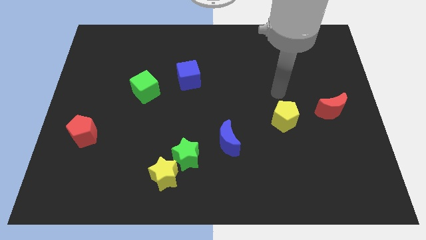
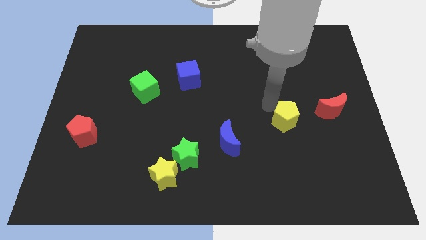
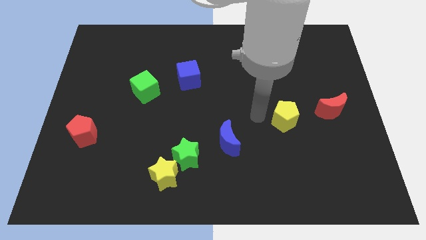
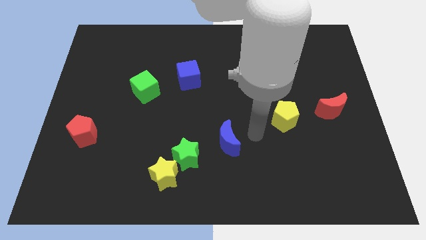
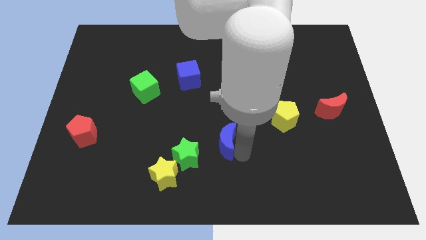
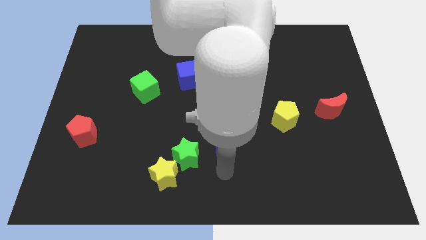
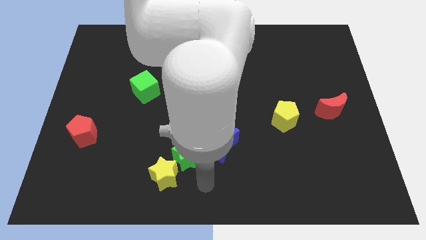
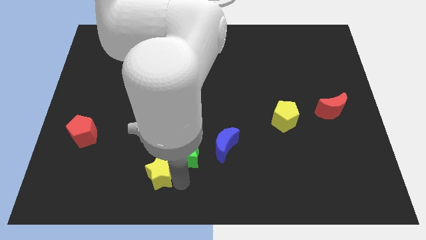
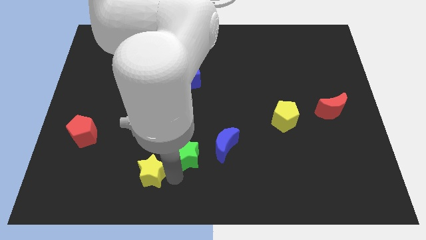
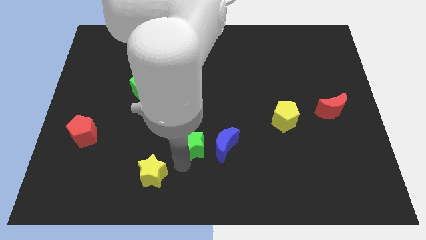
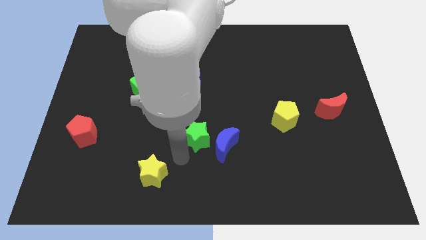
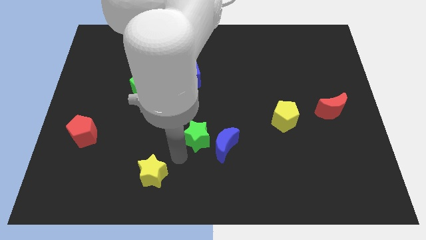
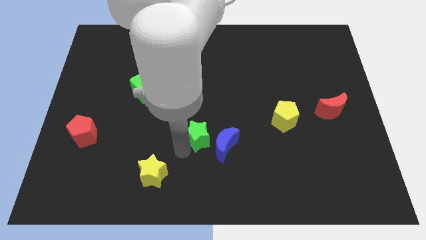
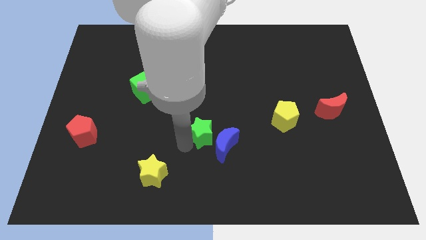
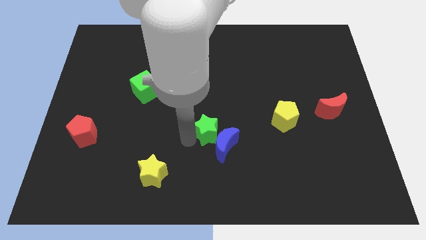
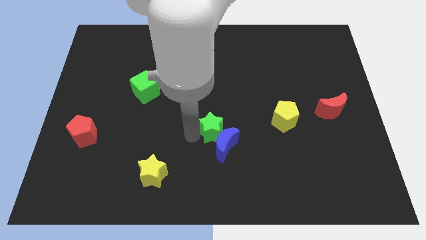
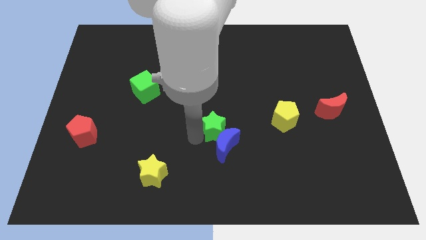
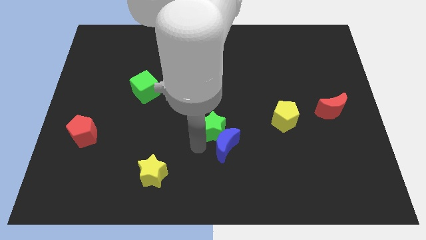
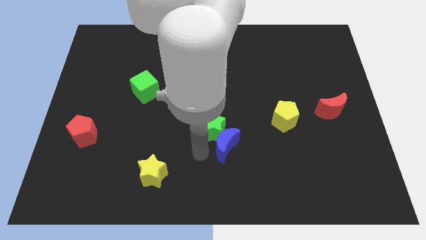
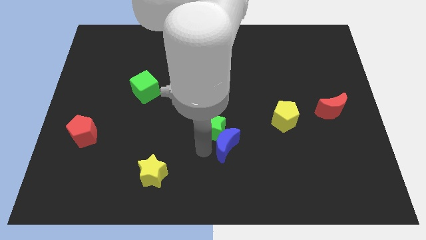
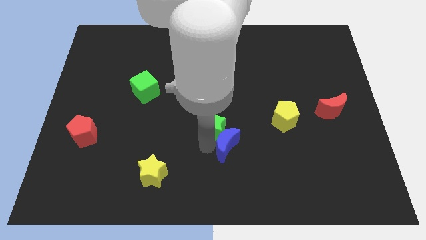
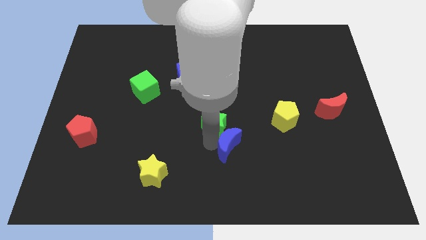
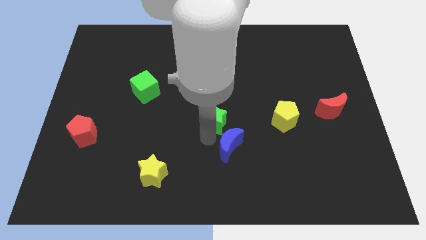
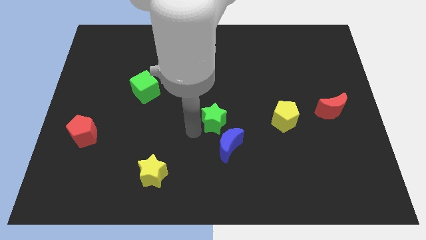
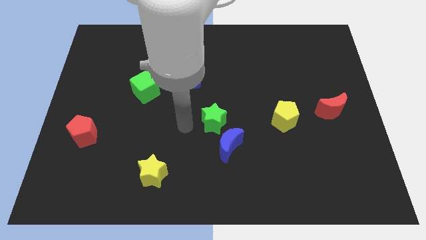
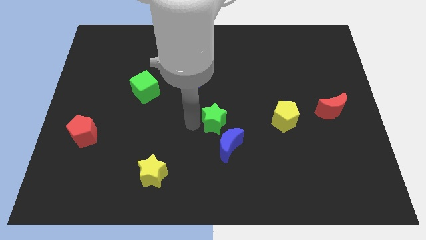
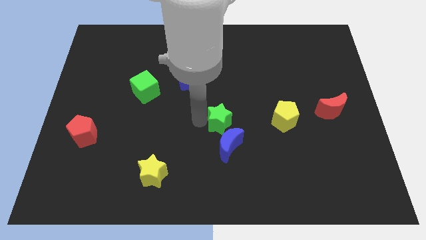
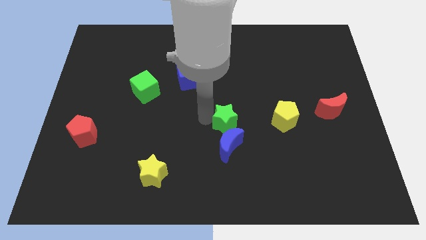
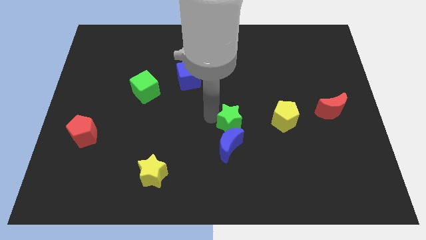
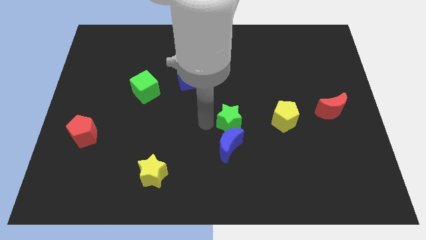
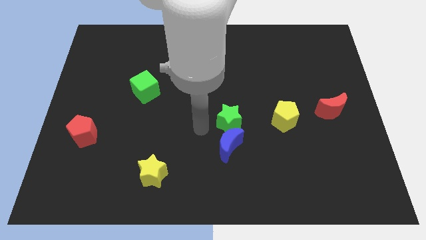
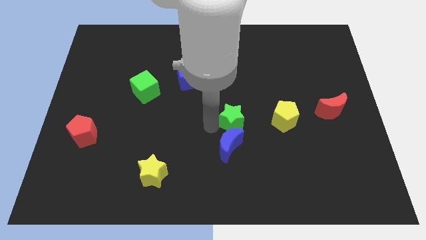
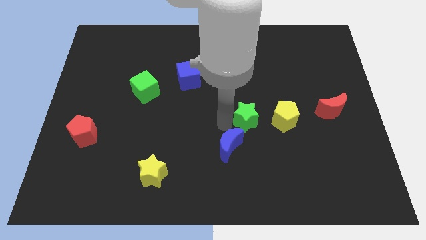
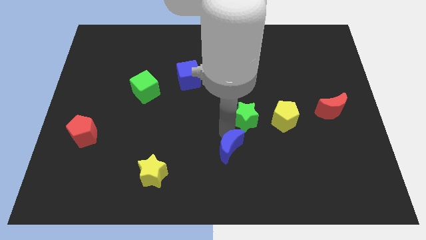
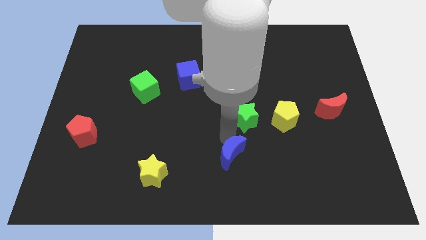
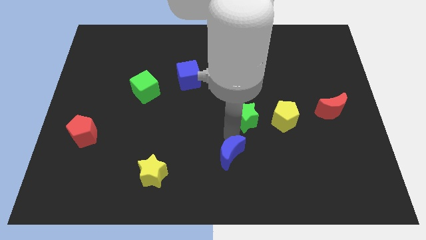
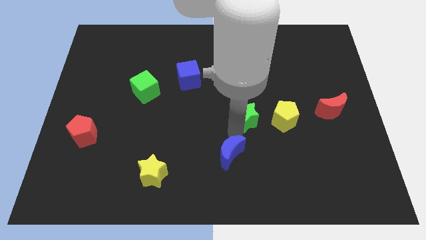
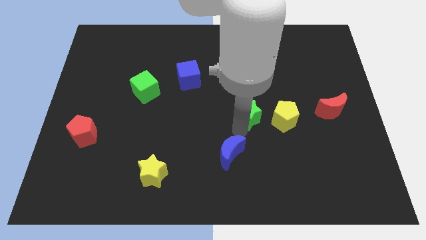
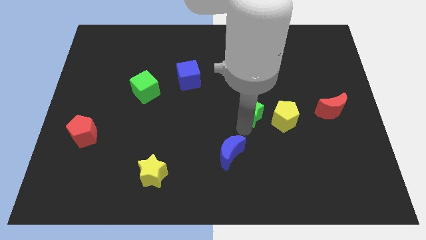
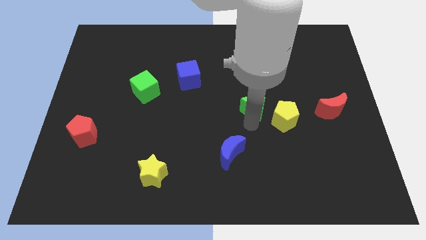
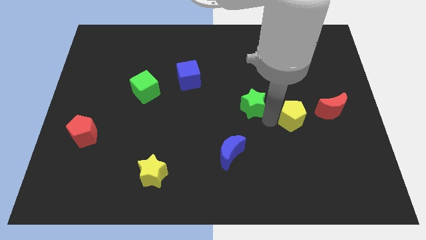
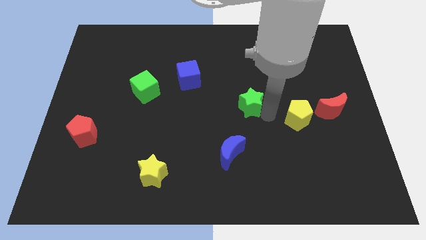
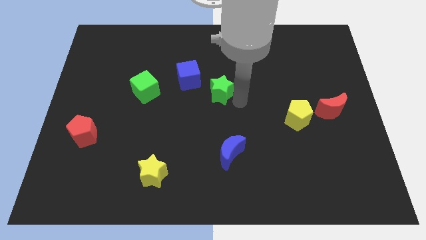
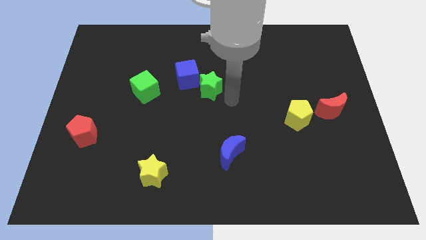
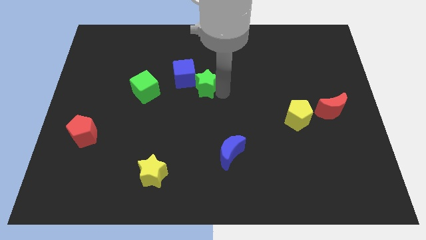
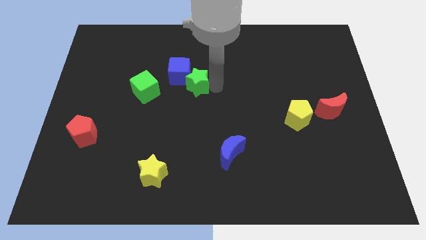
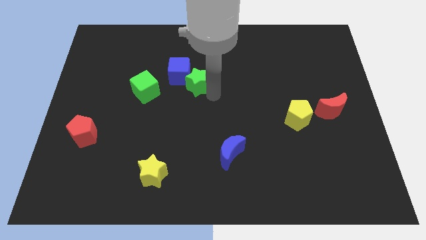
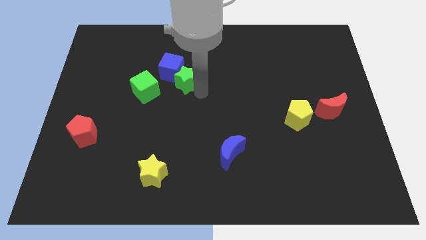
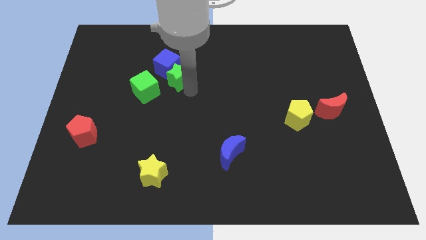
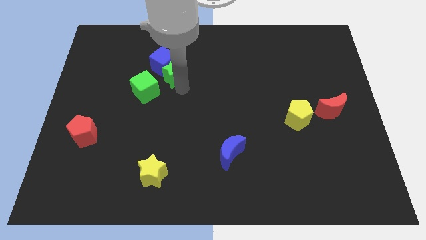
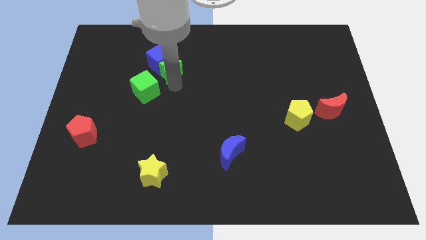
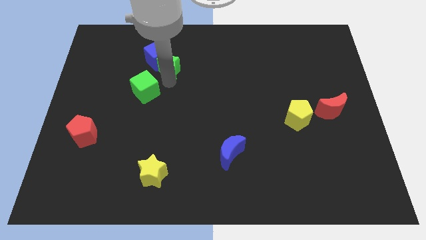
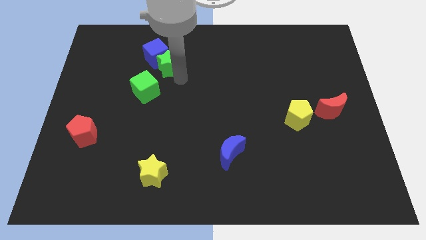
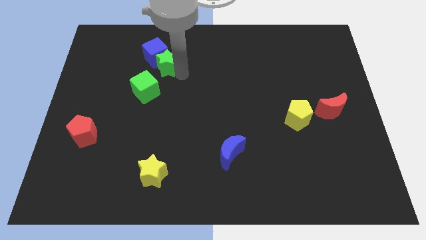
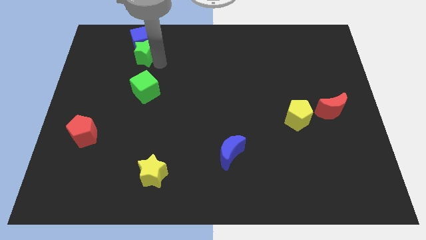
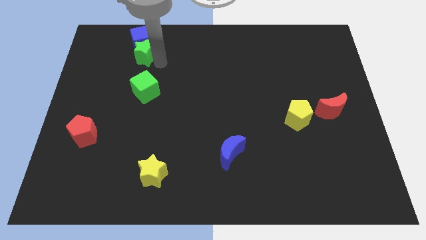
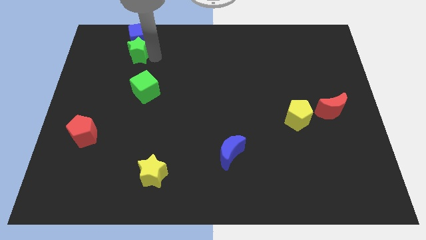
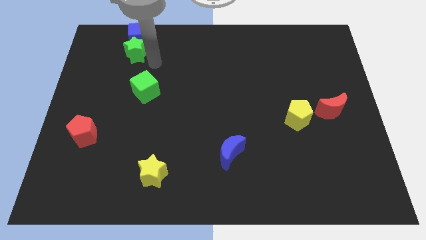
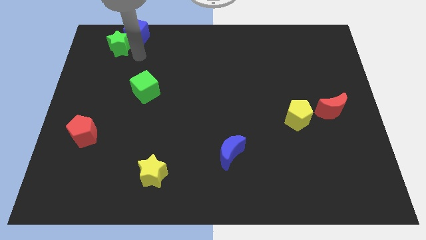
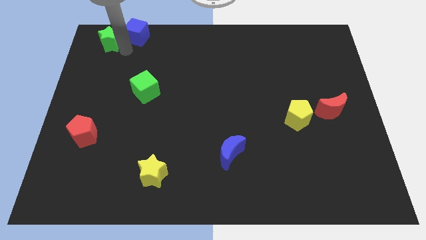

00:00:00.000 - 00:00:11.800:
put the green star to the upper left corner
